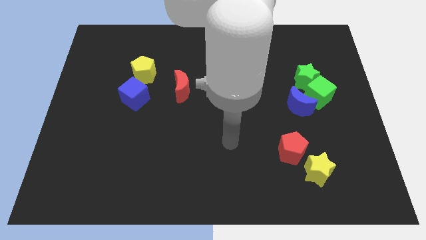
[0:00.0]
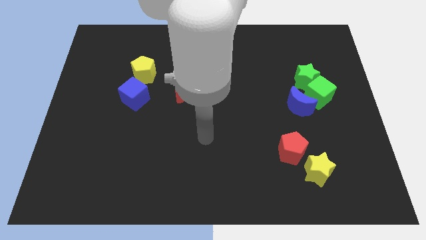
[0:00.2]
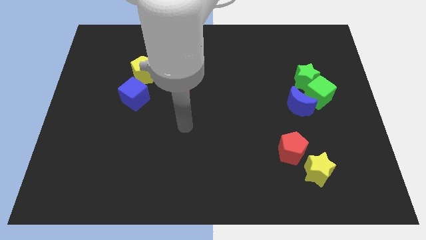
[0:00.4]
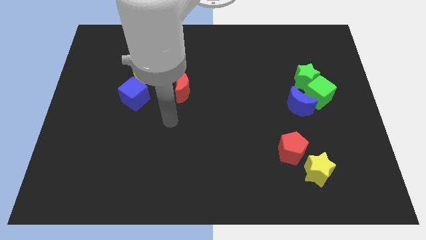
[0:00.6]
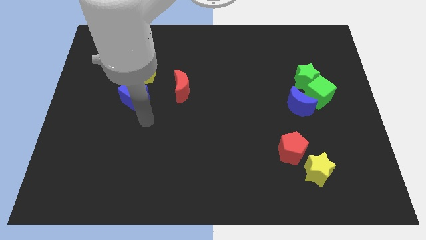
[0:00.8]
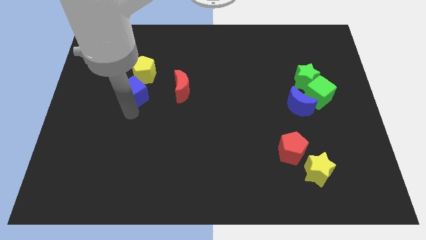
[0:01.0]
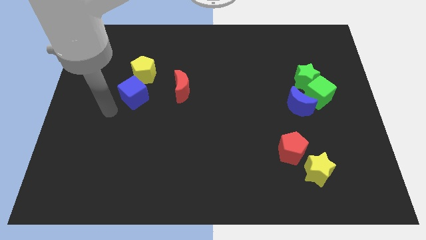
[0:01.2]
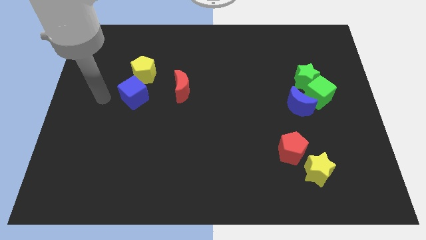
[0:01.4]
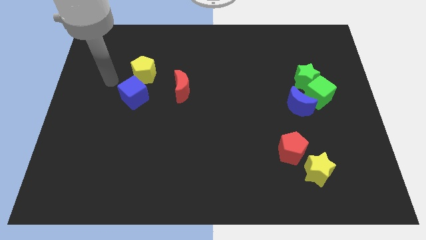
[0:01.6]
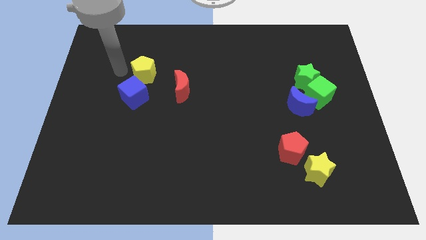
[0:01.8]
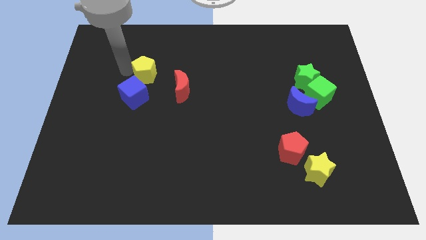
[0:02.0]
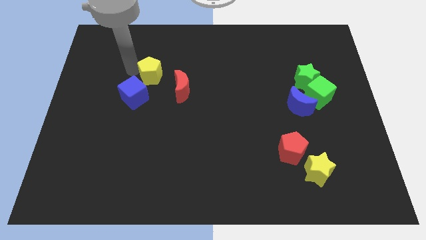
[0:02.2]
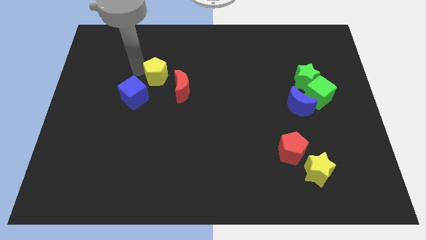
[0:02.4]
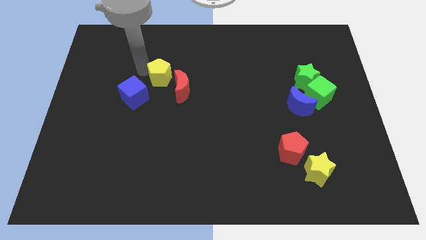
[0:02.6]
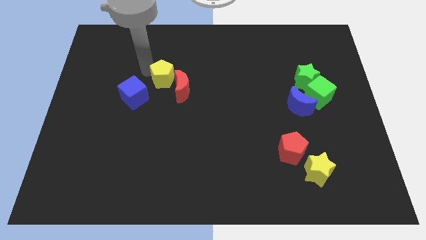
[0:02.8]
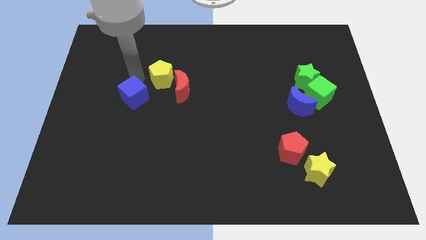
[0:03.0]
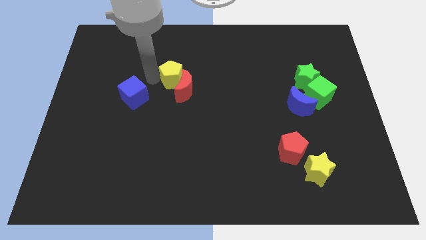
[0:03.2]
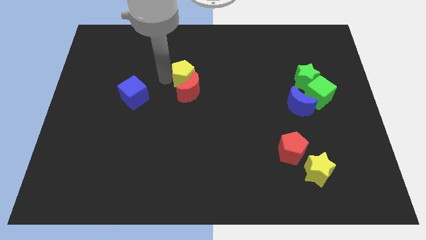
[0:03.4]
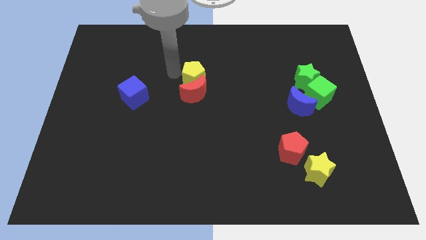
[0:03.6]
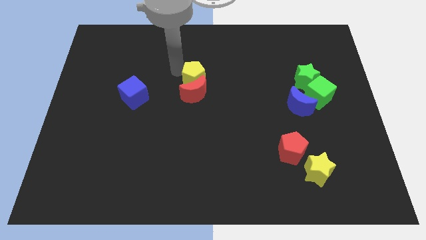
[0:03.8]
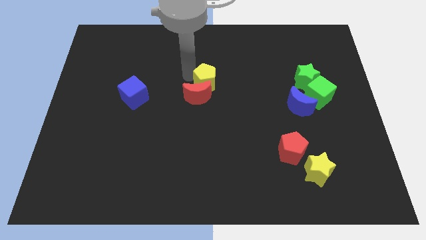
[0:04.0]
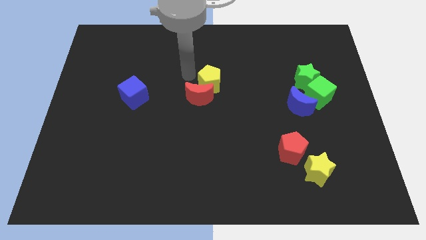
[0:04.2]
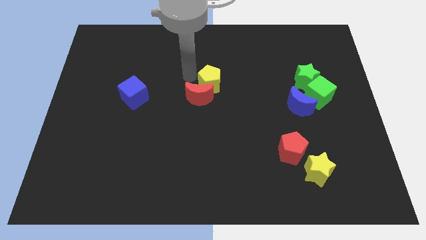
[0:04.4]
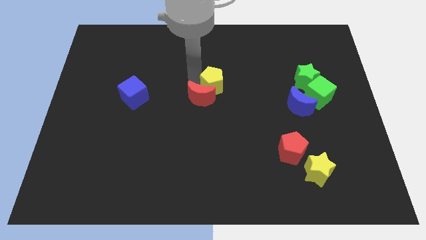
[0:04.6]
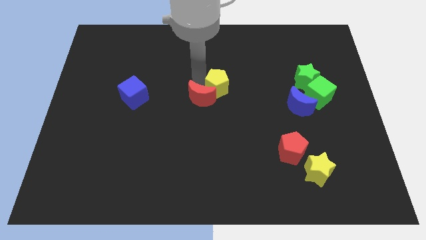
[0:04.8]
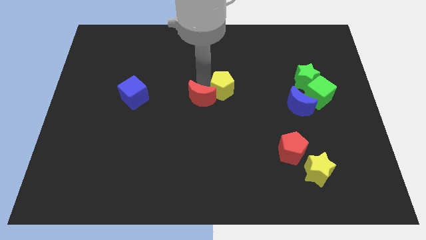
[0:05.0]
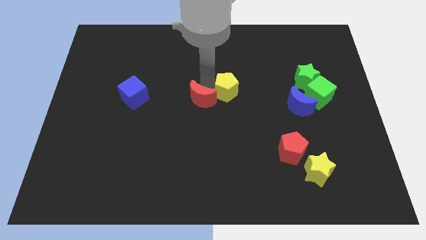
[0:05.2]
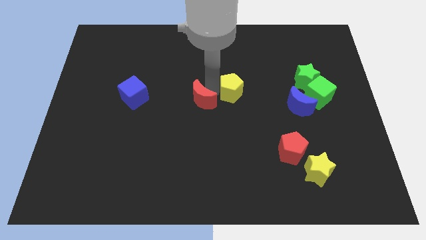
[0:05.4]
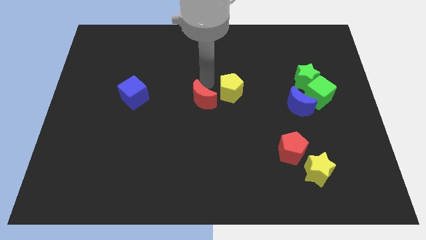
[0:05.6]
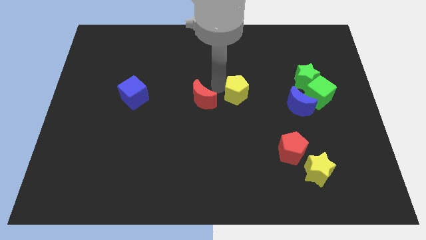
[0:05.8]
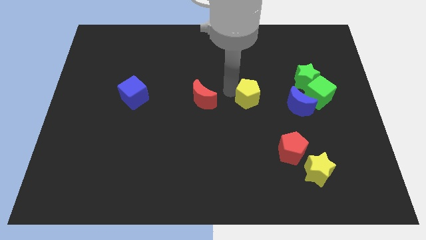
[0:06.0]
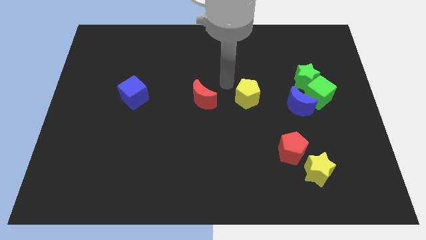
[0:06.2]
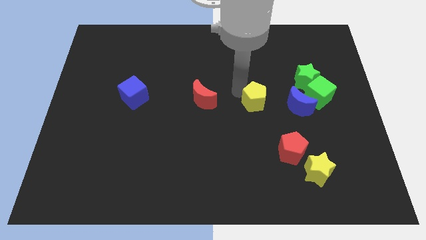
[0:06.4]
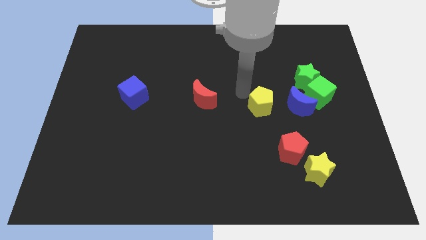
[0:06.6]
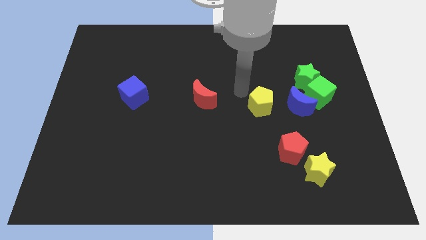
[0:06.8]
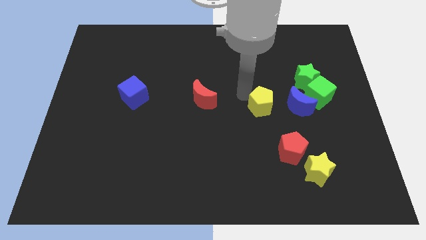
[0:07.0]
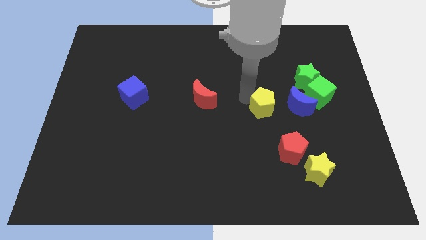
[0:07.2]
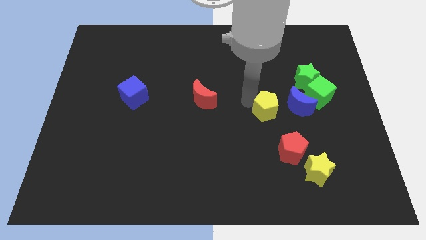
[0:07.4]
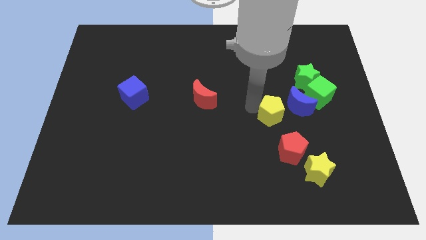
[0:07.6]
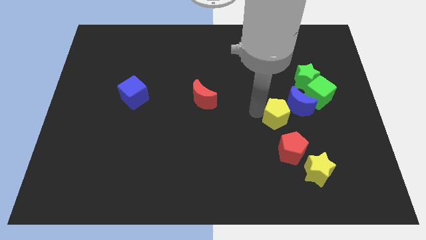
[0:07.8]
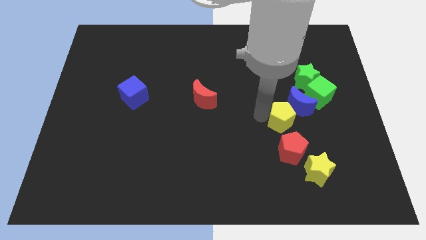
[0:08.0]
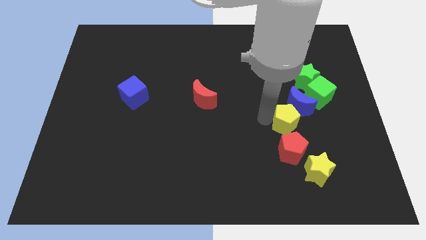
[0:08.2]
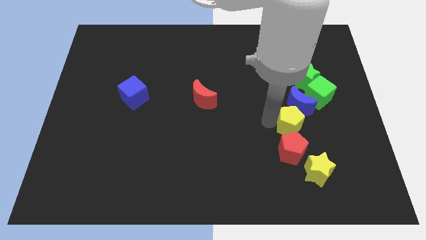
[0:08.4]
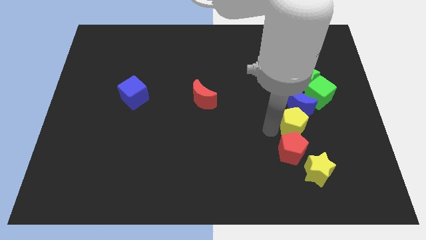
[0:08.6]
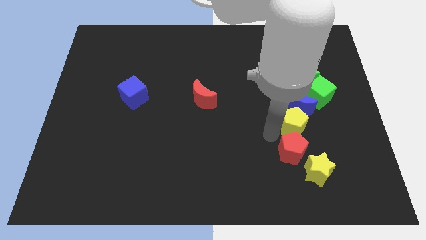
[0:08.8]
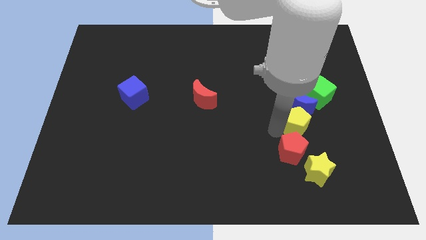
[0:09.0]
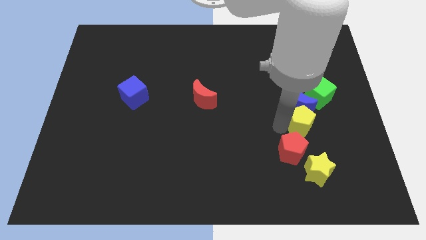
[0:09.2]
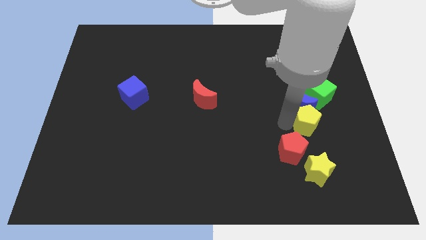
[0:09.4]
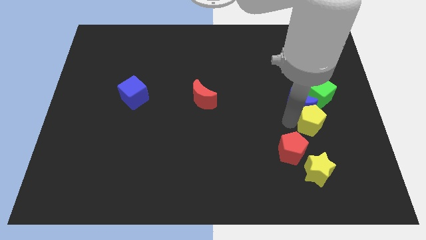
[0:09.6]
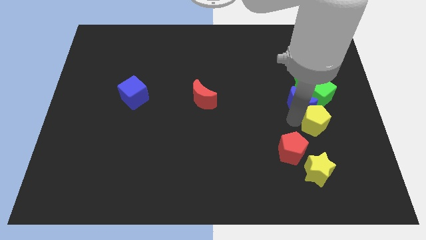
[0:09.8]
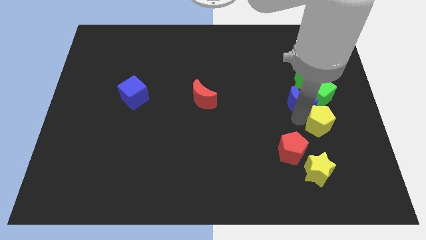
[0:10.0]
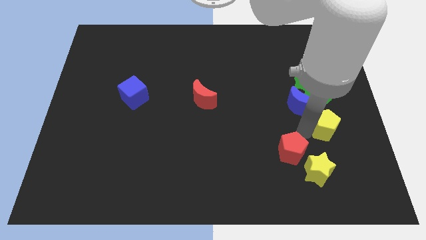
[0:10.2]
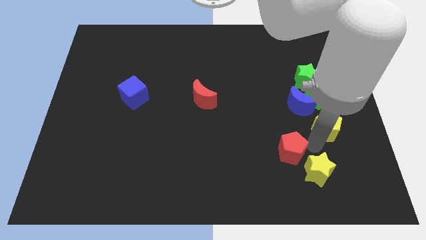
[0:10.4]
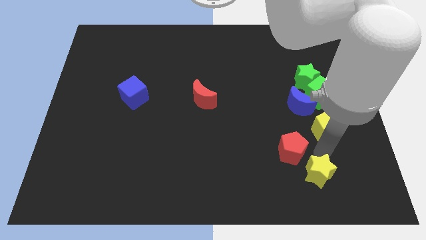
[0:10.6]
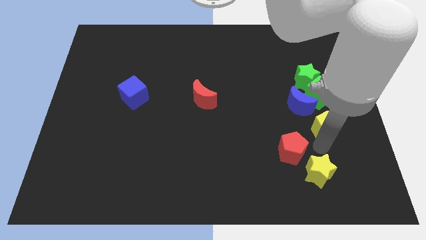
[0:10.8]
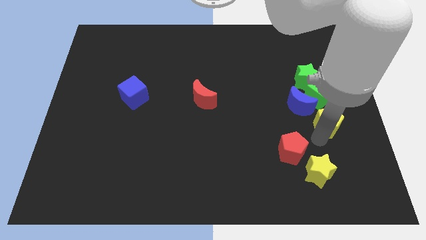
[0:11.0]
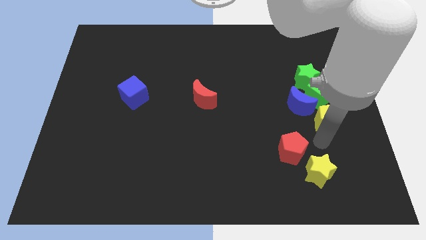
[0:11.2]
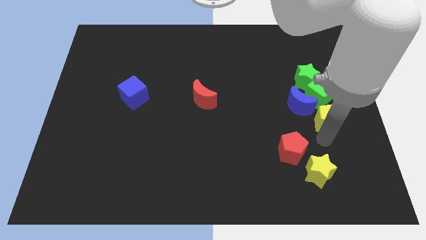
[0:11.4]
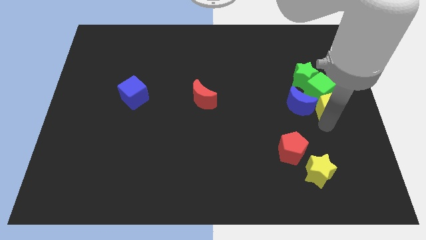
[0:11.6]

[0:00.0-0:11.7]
push the yellow pentagon to the bottom right side of the green star

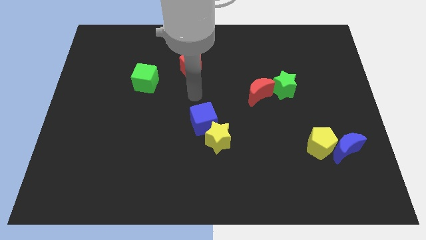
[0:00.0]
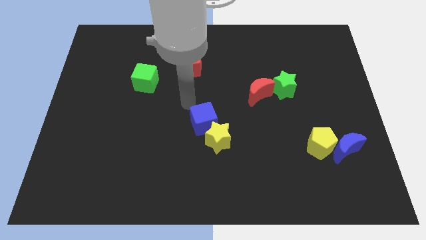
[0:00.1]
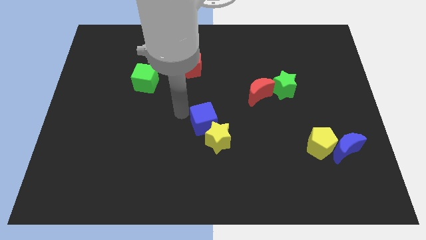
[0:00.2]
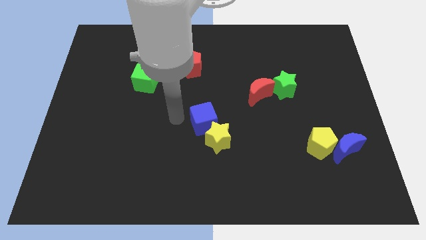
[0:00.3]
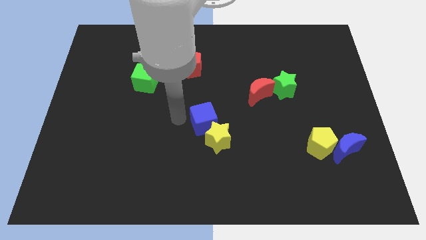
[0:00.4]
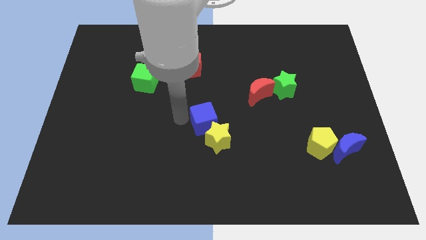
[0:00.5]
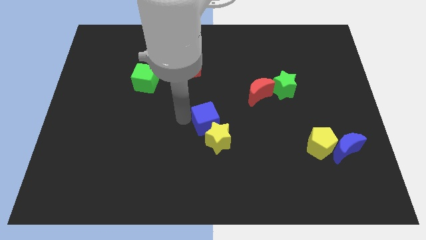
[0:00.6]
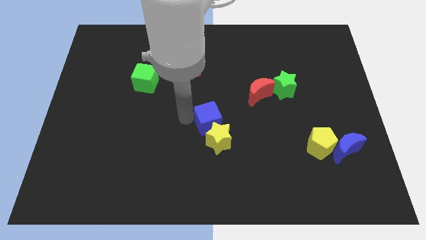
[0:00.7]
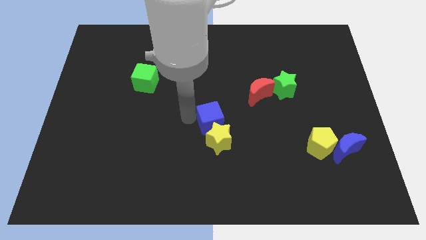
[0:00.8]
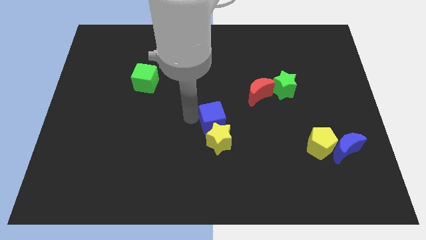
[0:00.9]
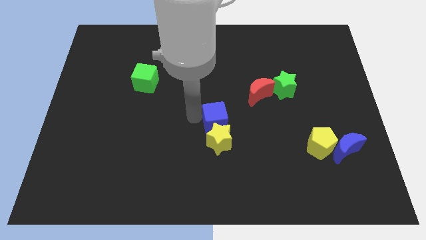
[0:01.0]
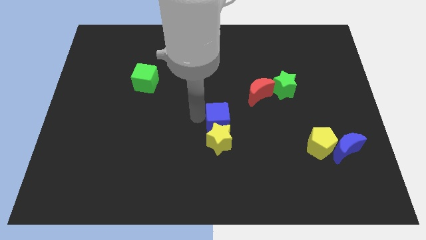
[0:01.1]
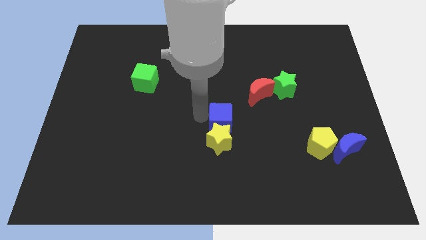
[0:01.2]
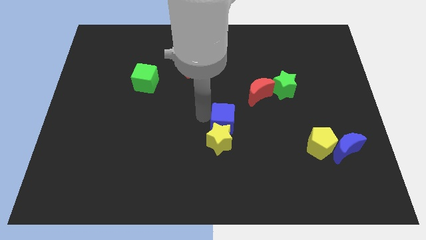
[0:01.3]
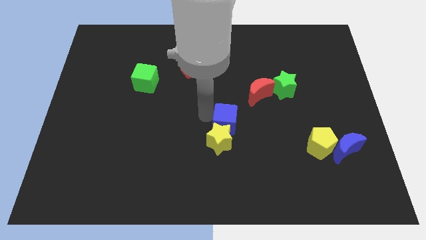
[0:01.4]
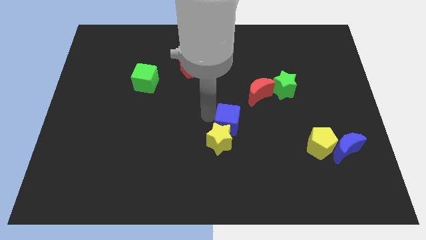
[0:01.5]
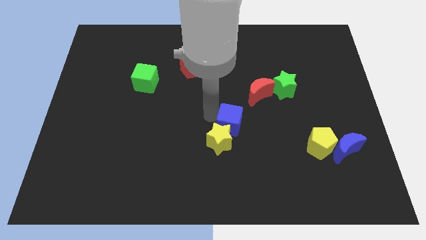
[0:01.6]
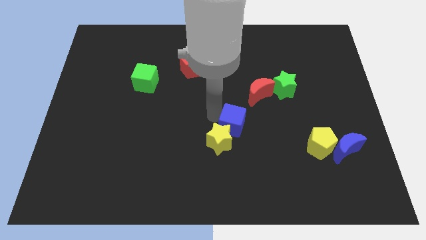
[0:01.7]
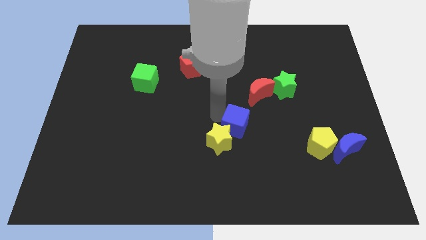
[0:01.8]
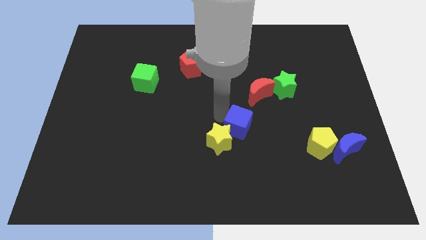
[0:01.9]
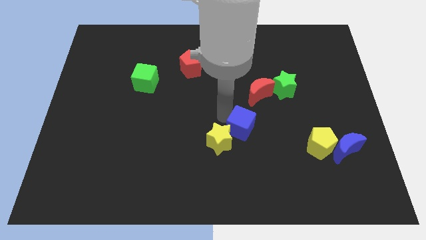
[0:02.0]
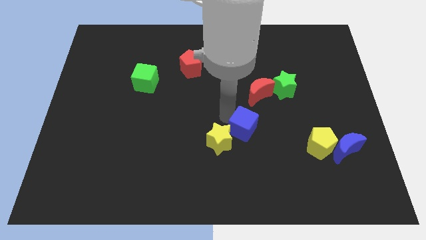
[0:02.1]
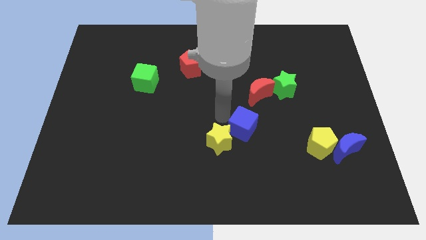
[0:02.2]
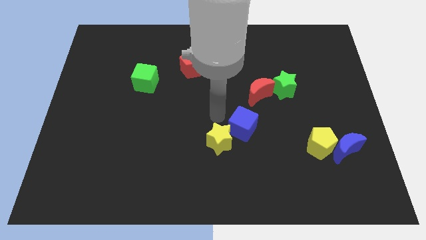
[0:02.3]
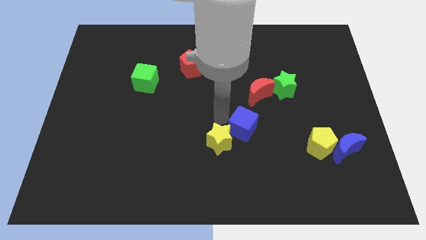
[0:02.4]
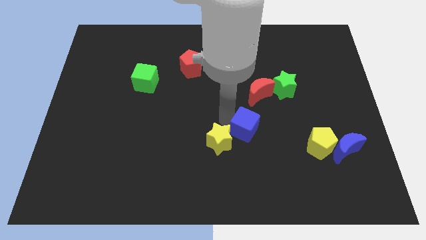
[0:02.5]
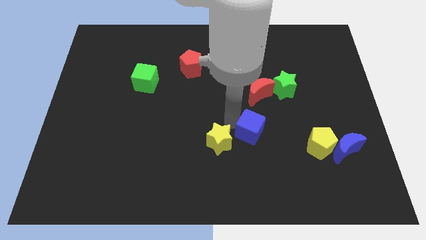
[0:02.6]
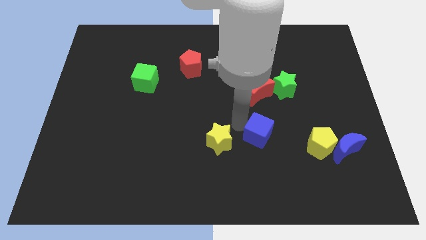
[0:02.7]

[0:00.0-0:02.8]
put the blue cube just left of the yellow pentagon
